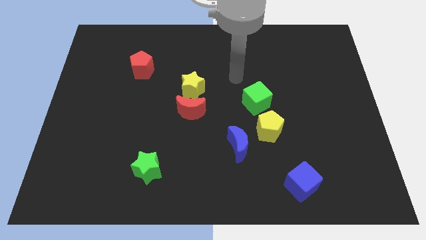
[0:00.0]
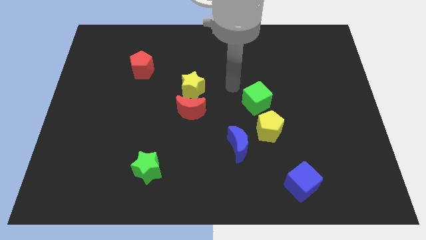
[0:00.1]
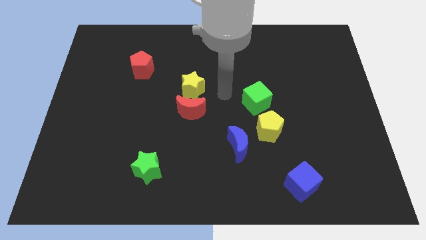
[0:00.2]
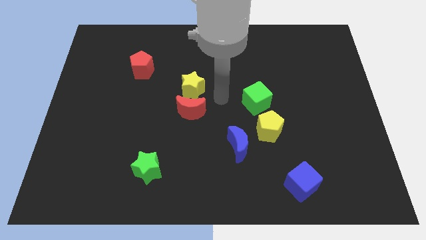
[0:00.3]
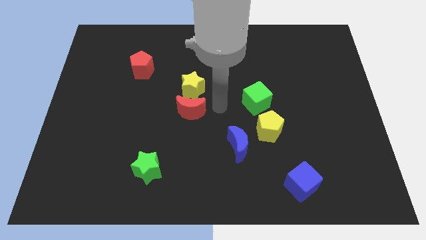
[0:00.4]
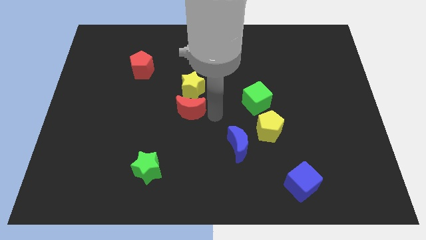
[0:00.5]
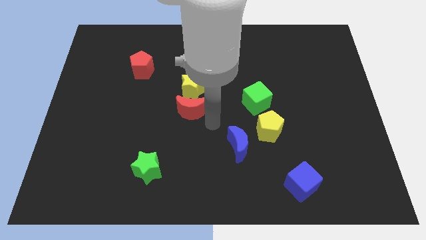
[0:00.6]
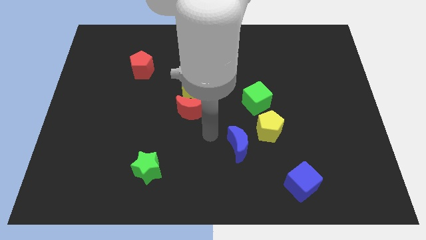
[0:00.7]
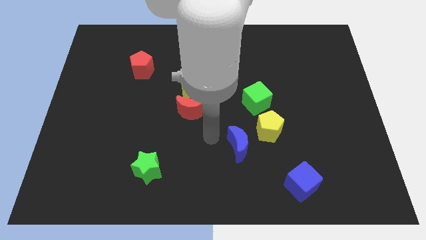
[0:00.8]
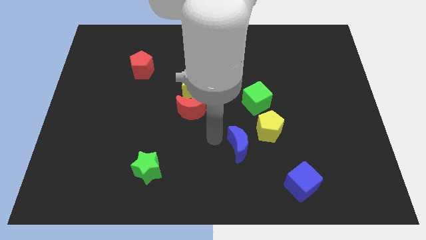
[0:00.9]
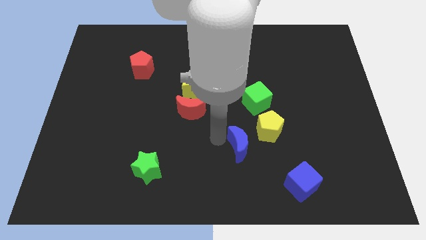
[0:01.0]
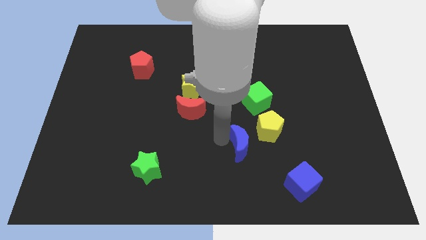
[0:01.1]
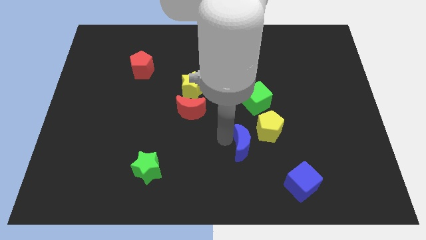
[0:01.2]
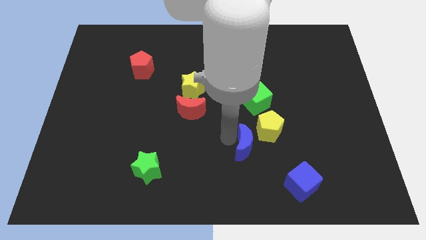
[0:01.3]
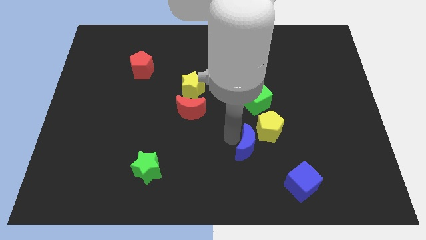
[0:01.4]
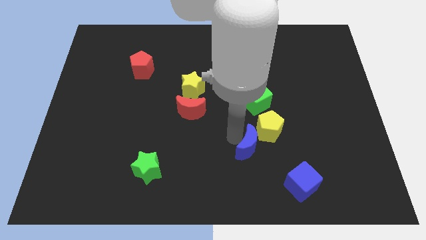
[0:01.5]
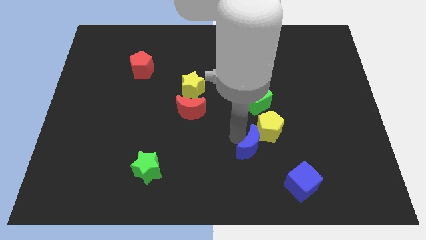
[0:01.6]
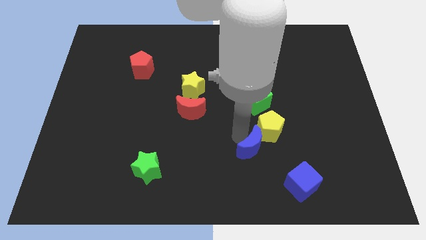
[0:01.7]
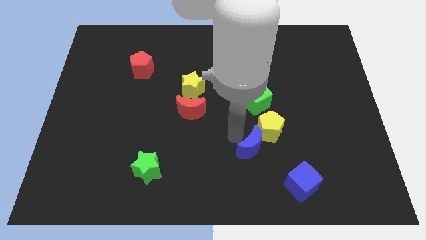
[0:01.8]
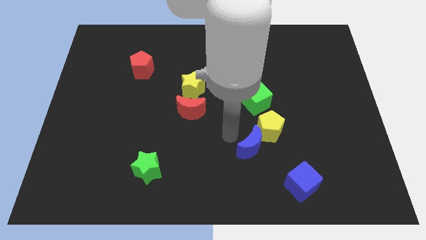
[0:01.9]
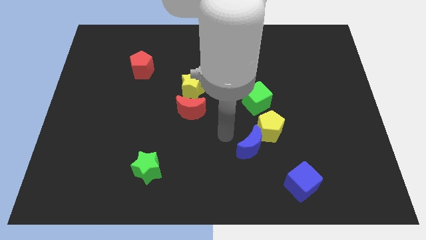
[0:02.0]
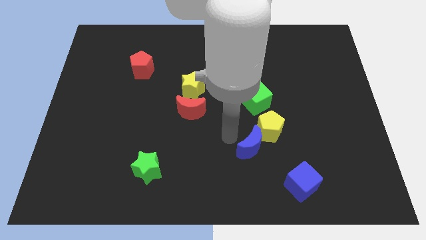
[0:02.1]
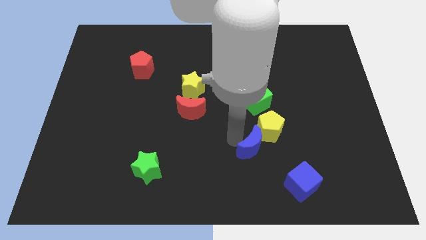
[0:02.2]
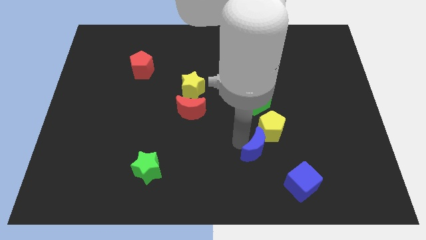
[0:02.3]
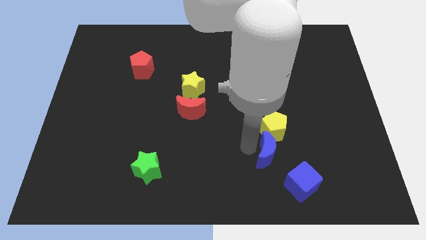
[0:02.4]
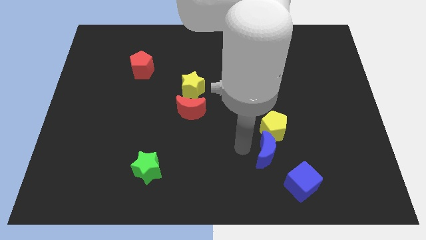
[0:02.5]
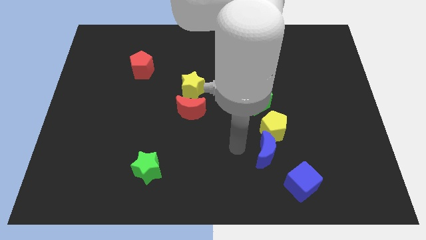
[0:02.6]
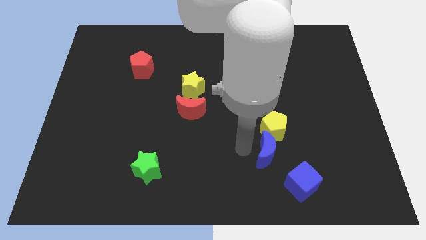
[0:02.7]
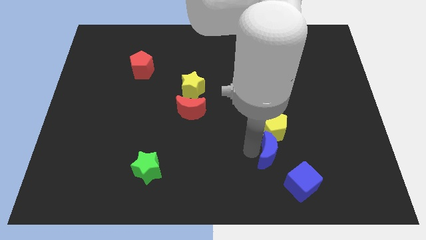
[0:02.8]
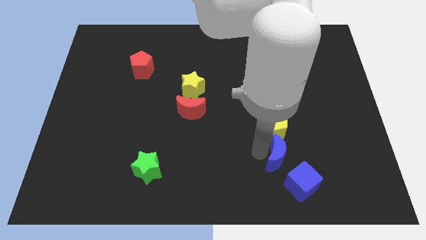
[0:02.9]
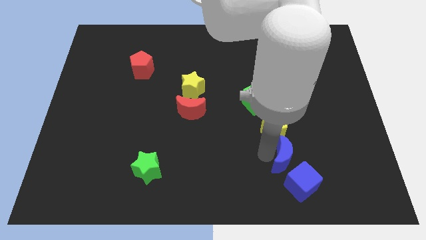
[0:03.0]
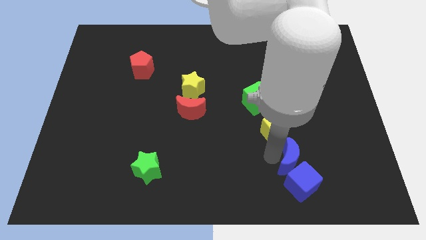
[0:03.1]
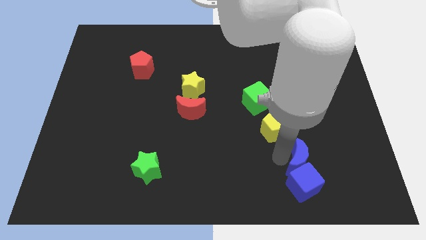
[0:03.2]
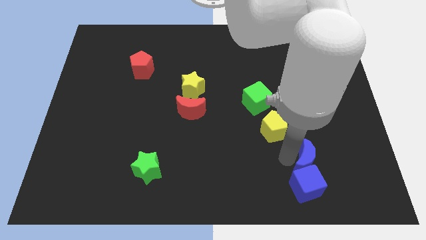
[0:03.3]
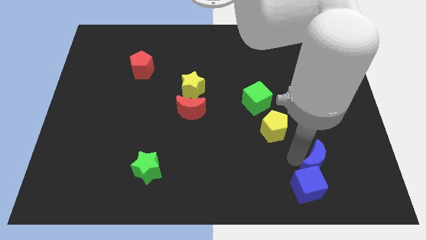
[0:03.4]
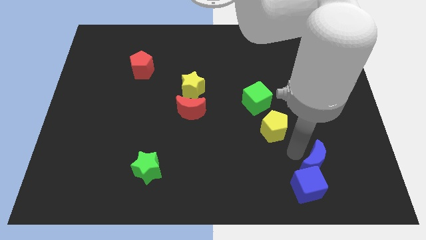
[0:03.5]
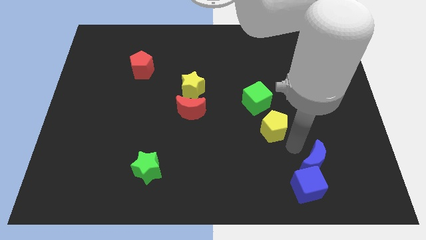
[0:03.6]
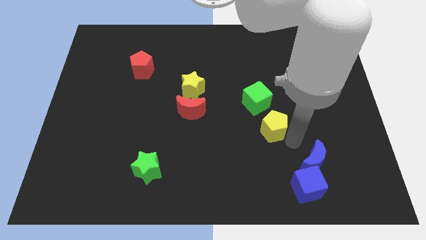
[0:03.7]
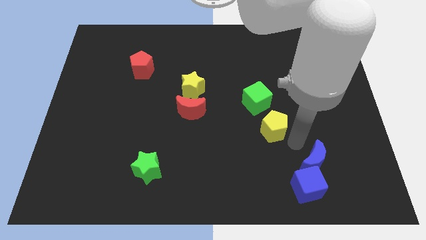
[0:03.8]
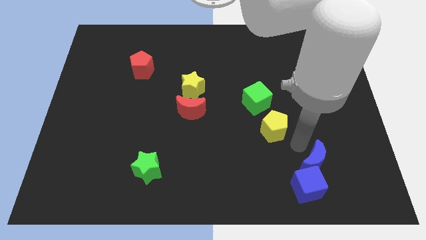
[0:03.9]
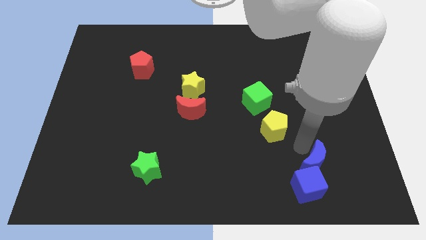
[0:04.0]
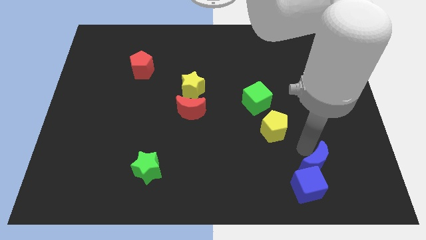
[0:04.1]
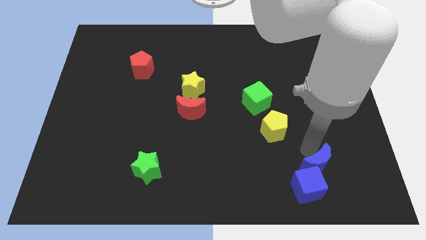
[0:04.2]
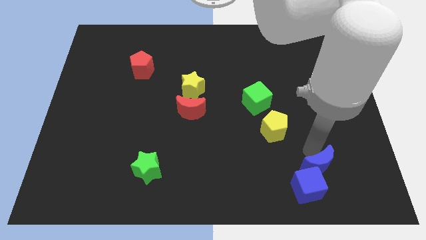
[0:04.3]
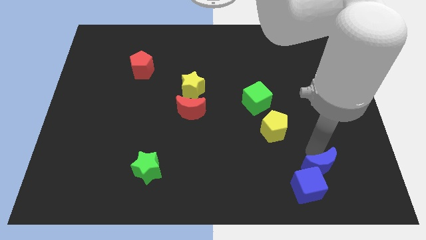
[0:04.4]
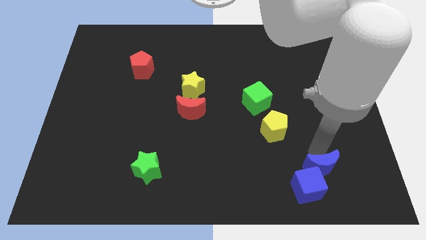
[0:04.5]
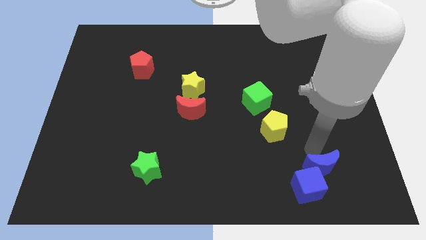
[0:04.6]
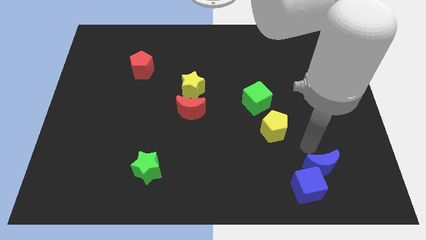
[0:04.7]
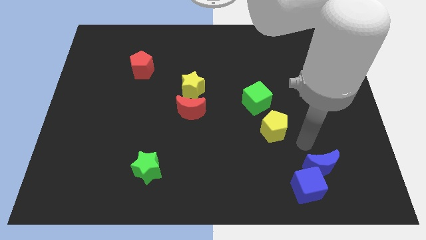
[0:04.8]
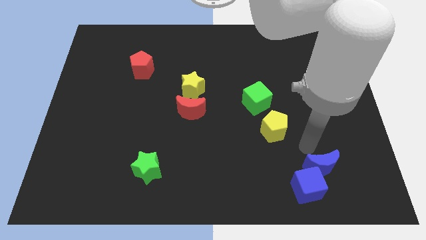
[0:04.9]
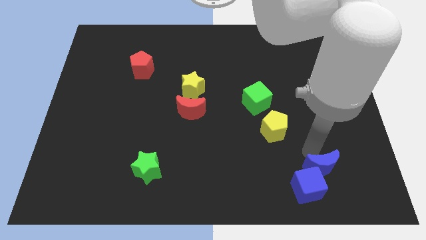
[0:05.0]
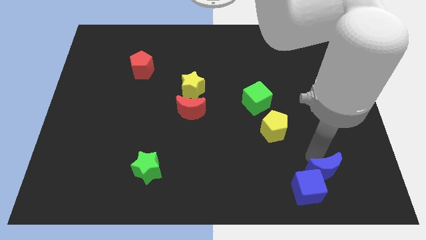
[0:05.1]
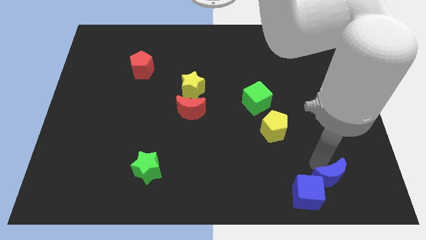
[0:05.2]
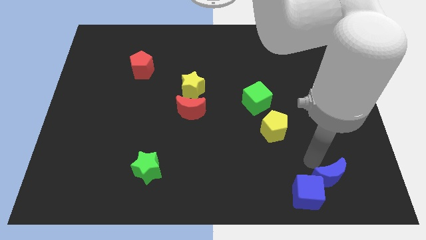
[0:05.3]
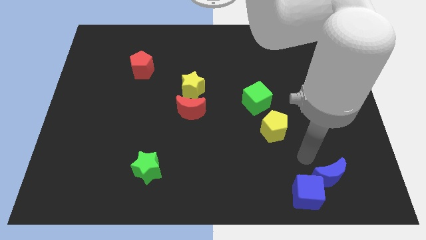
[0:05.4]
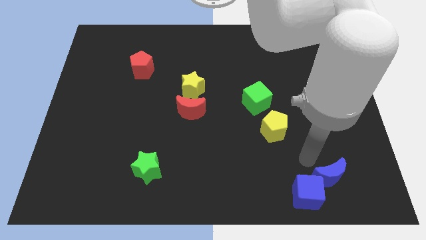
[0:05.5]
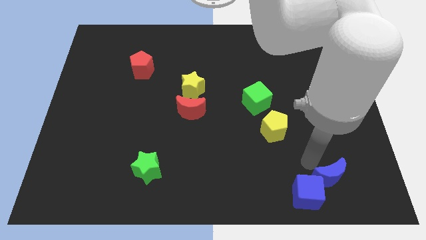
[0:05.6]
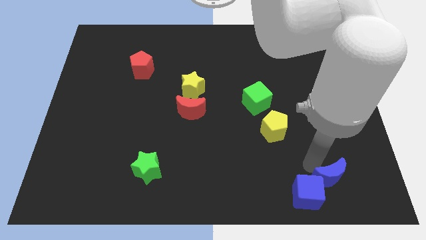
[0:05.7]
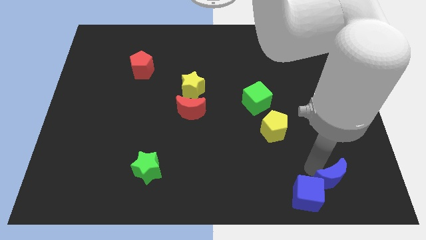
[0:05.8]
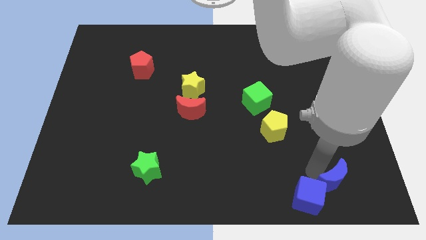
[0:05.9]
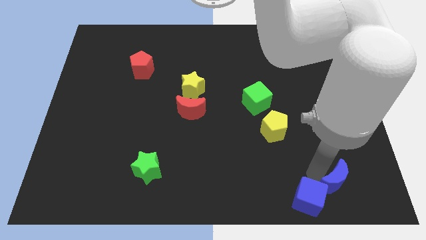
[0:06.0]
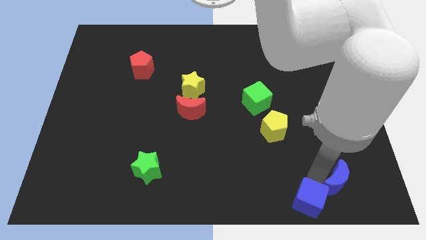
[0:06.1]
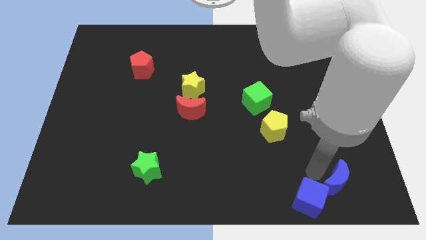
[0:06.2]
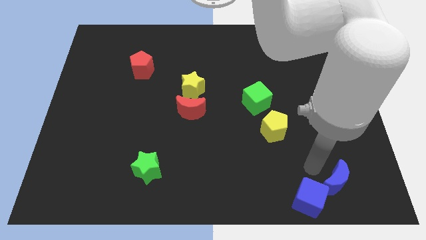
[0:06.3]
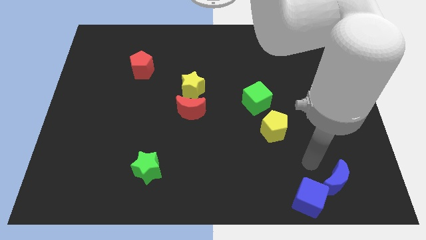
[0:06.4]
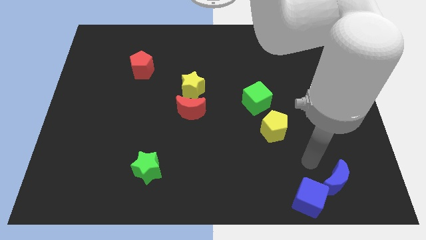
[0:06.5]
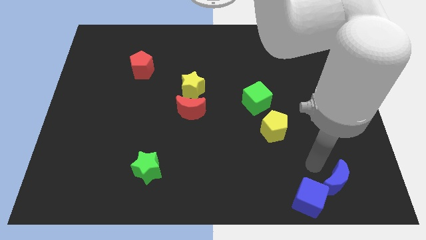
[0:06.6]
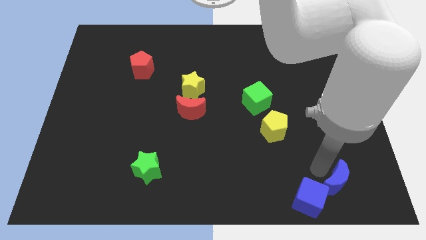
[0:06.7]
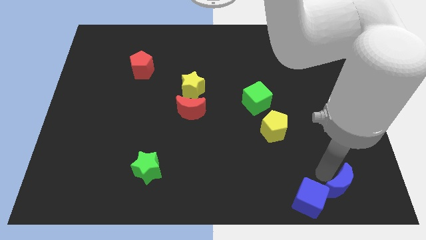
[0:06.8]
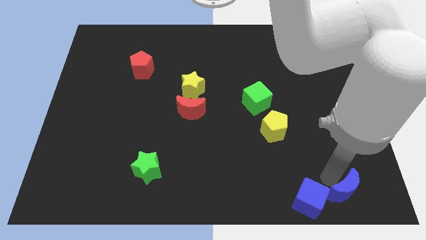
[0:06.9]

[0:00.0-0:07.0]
move the blue moon to the bottom right
